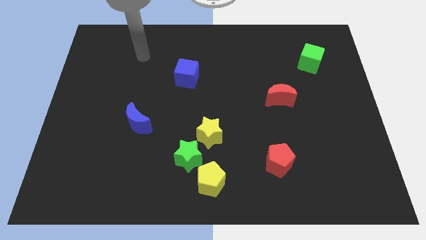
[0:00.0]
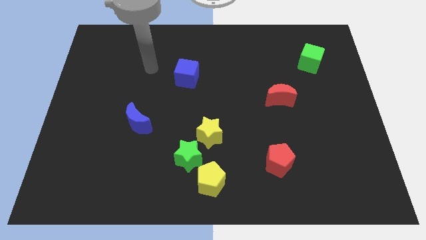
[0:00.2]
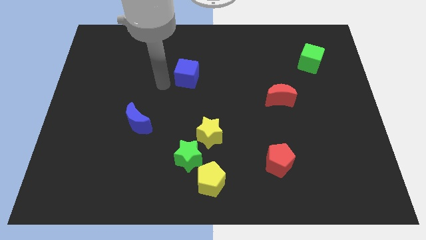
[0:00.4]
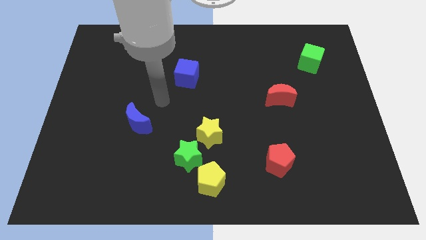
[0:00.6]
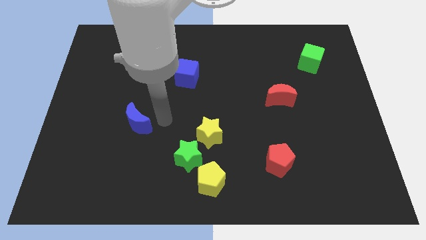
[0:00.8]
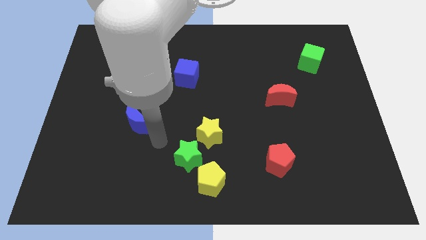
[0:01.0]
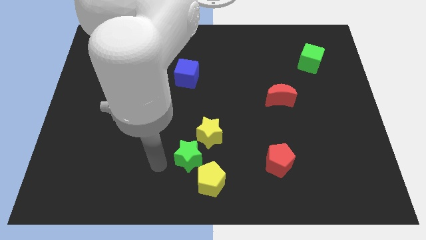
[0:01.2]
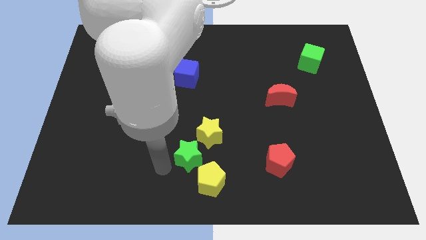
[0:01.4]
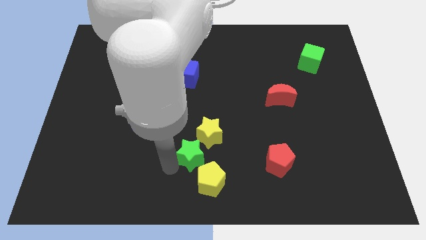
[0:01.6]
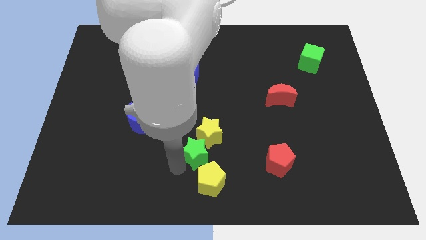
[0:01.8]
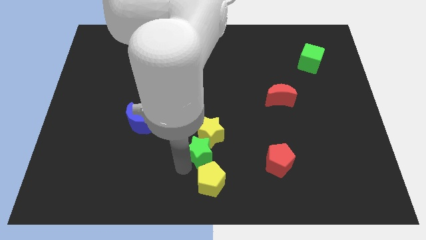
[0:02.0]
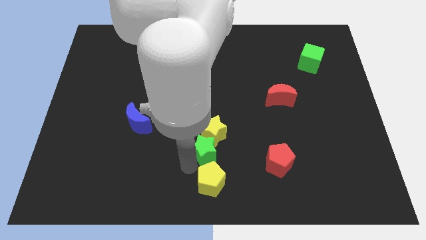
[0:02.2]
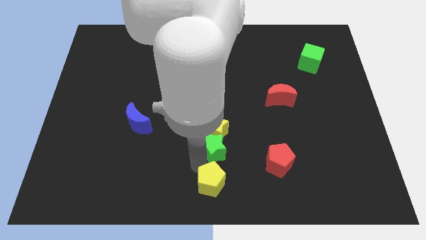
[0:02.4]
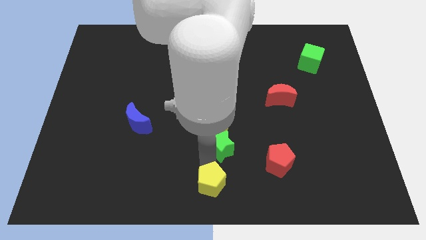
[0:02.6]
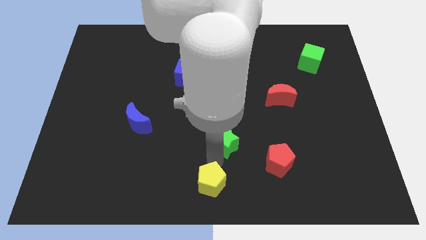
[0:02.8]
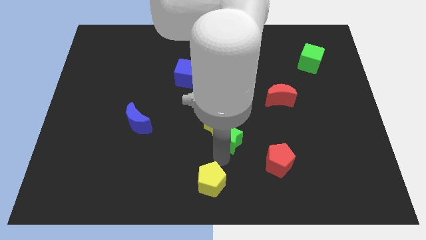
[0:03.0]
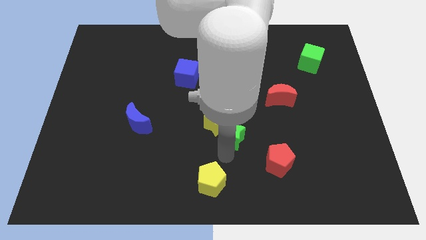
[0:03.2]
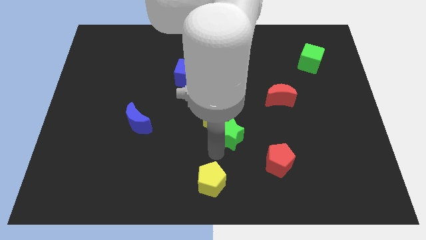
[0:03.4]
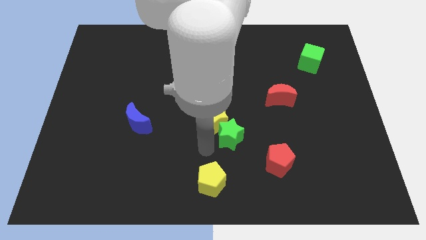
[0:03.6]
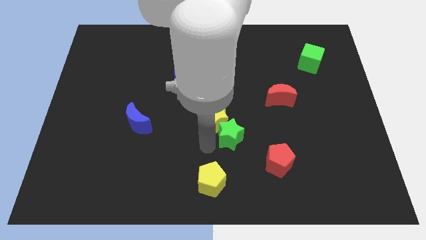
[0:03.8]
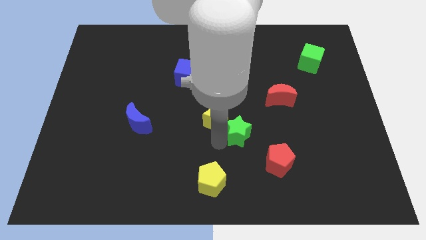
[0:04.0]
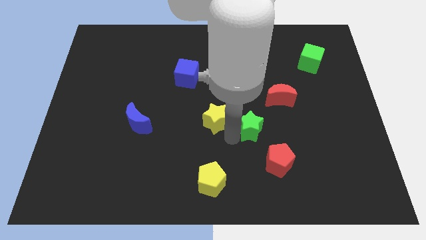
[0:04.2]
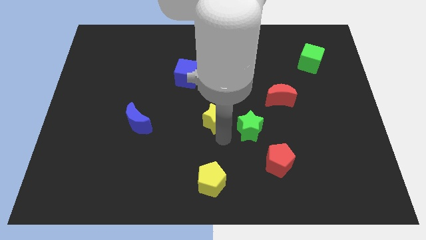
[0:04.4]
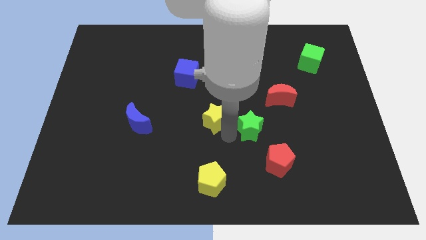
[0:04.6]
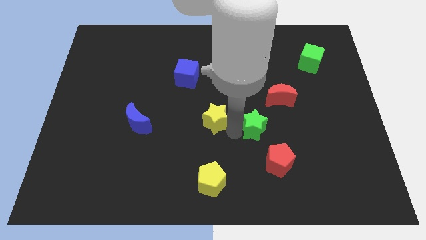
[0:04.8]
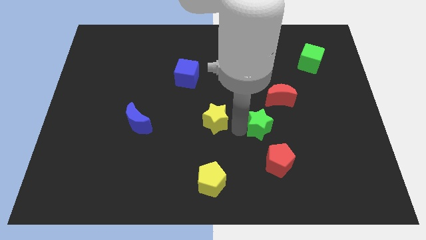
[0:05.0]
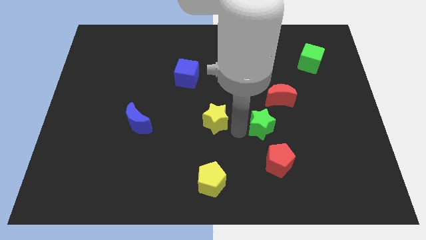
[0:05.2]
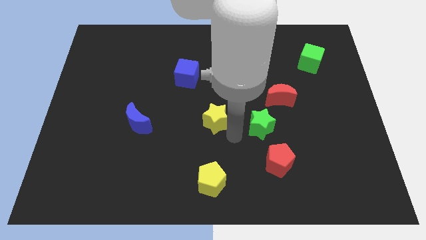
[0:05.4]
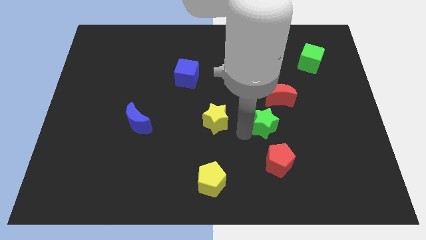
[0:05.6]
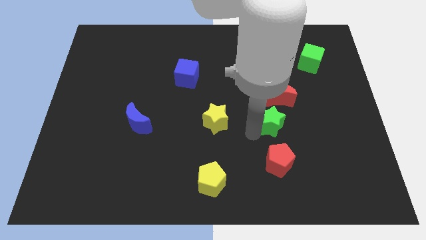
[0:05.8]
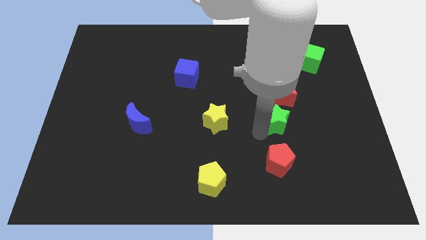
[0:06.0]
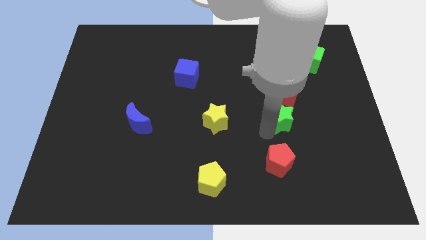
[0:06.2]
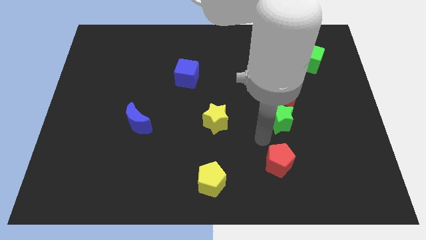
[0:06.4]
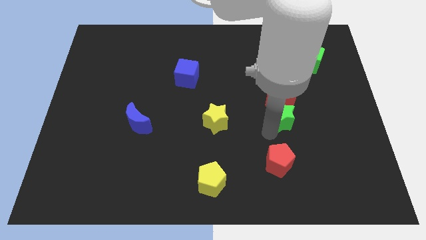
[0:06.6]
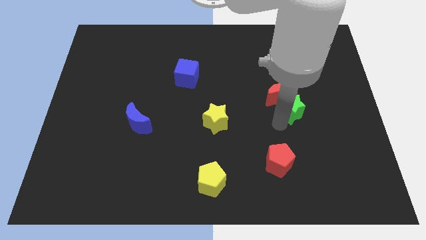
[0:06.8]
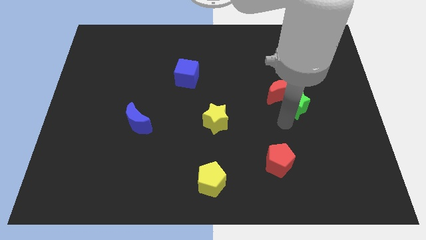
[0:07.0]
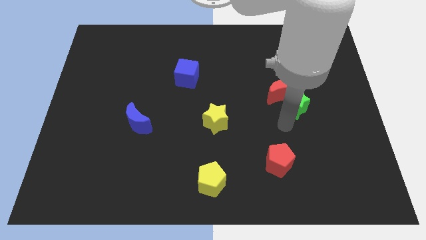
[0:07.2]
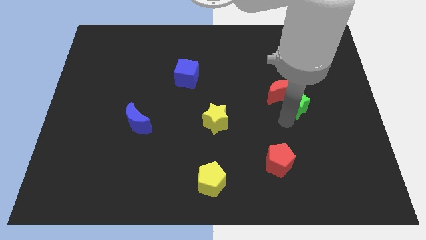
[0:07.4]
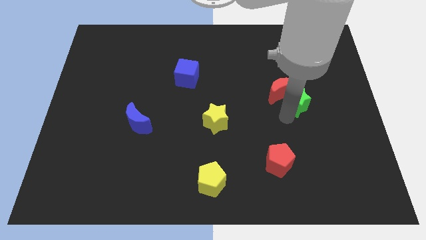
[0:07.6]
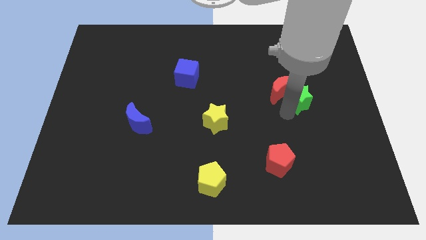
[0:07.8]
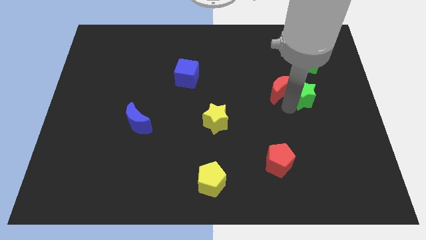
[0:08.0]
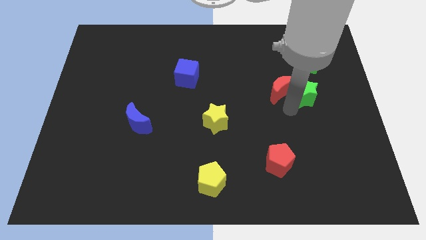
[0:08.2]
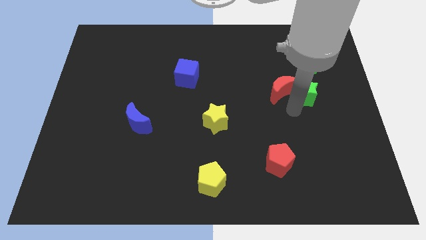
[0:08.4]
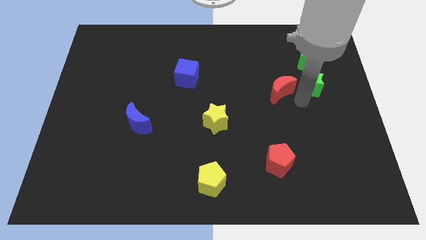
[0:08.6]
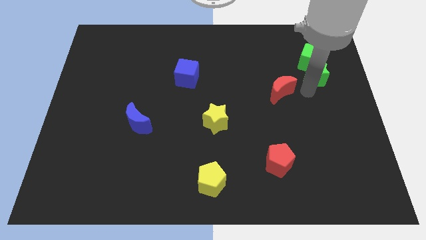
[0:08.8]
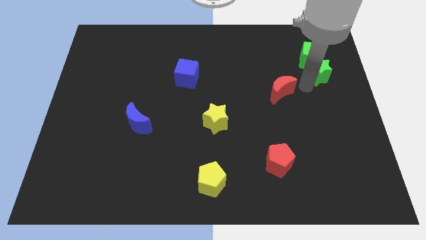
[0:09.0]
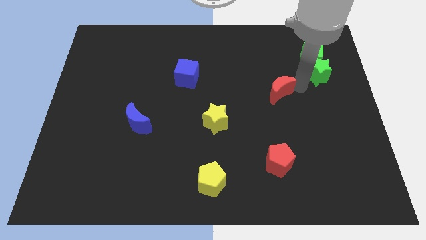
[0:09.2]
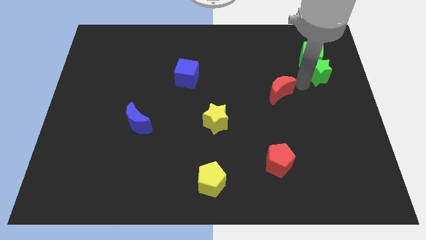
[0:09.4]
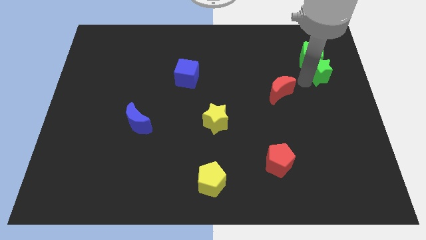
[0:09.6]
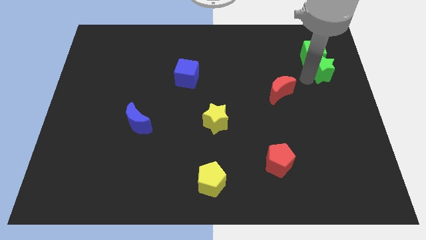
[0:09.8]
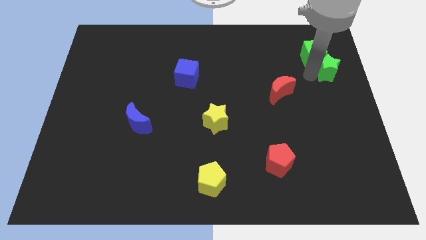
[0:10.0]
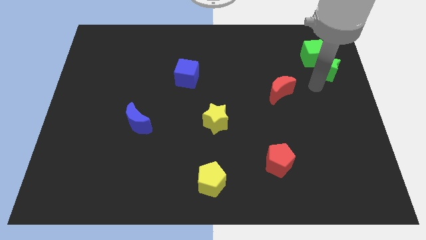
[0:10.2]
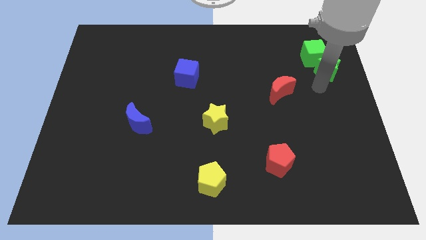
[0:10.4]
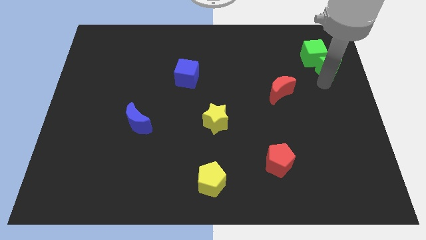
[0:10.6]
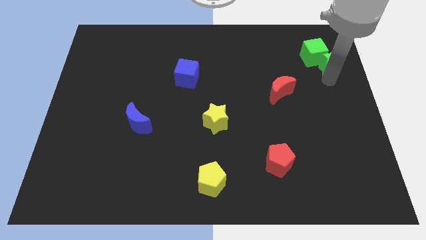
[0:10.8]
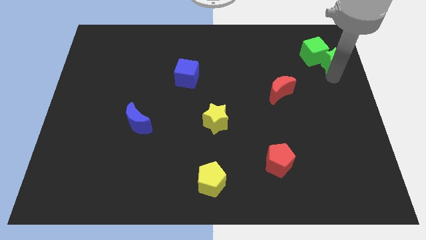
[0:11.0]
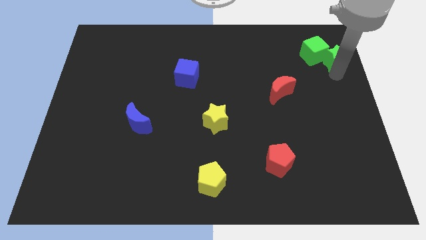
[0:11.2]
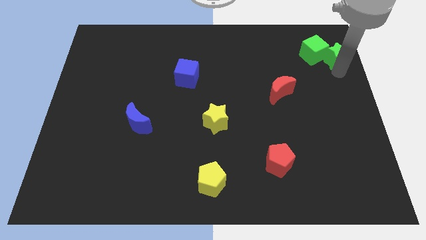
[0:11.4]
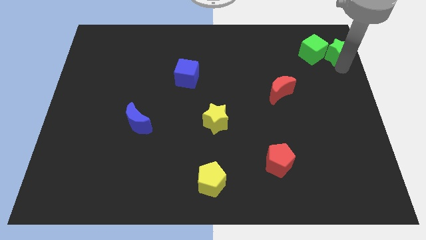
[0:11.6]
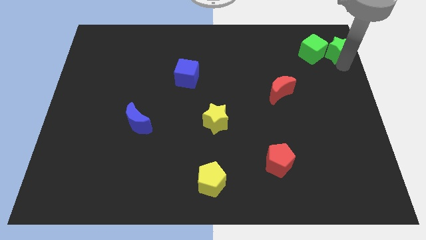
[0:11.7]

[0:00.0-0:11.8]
put the green star to the upper right corner
